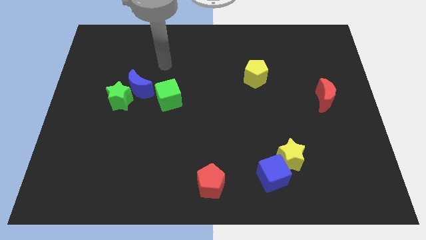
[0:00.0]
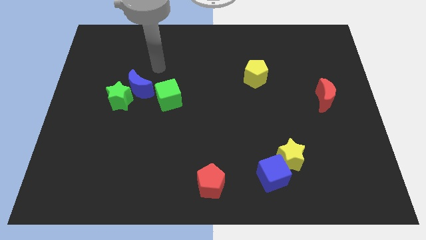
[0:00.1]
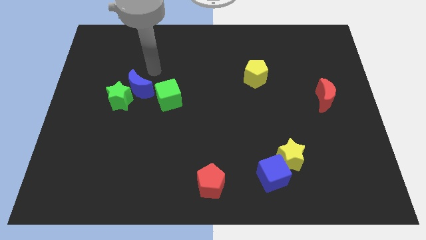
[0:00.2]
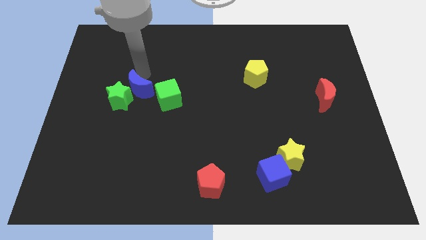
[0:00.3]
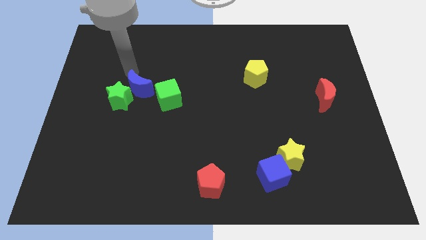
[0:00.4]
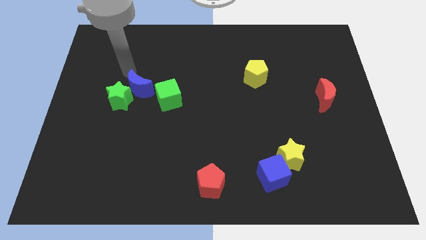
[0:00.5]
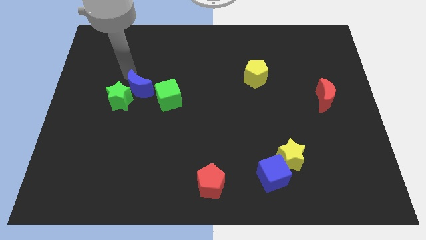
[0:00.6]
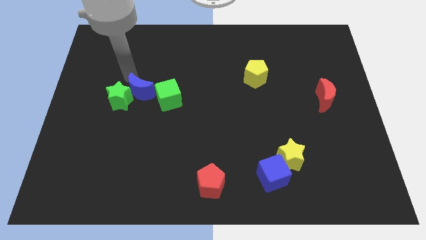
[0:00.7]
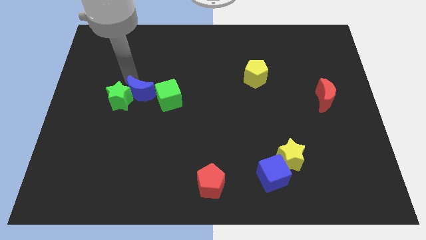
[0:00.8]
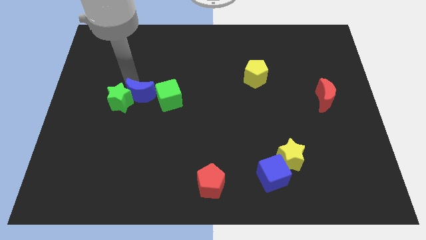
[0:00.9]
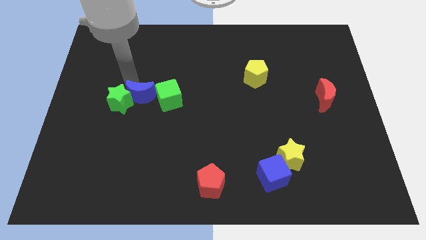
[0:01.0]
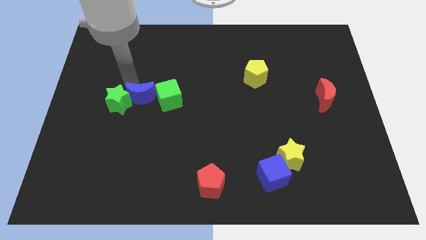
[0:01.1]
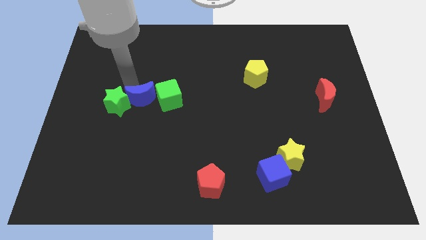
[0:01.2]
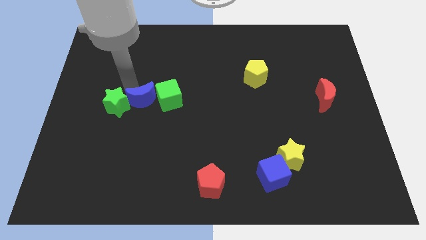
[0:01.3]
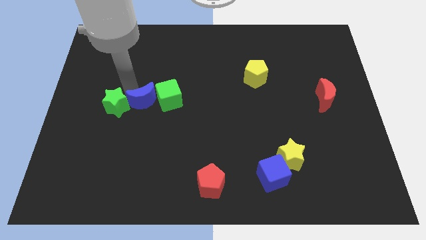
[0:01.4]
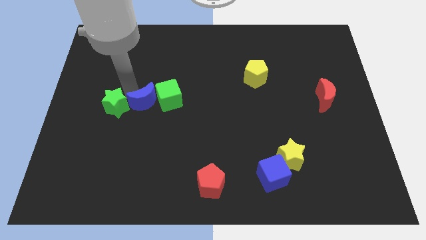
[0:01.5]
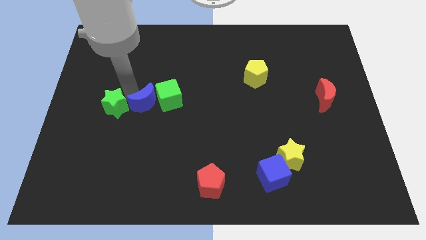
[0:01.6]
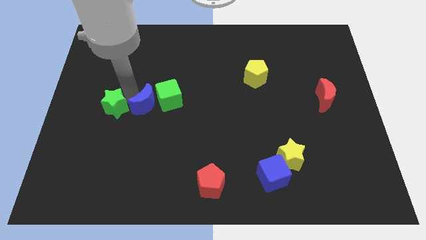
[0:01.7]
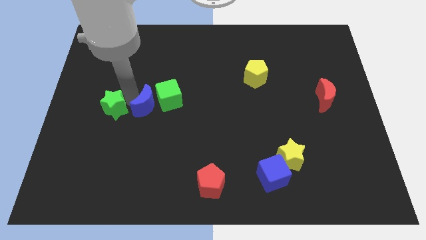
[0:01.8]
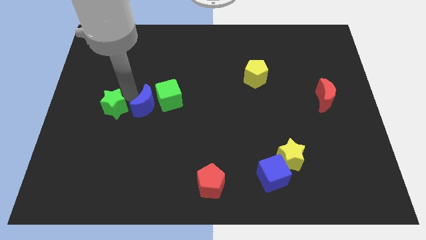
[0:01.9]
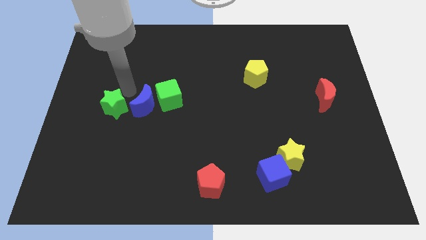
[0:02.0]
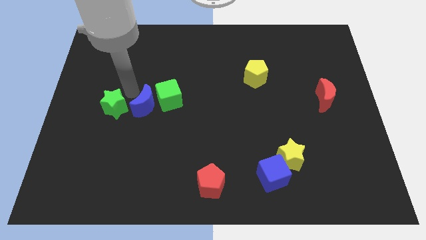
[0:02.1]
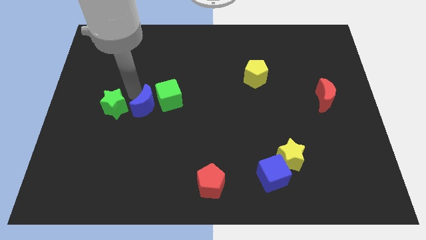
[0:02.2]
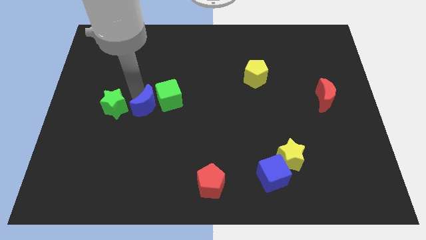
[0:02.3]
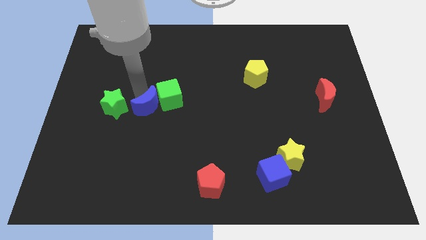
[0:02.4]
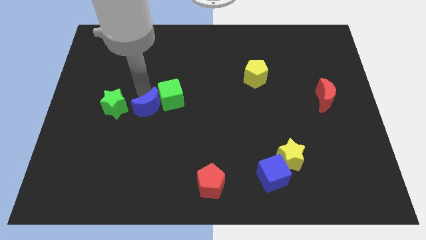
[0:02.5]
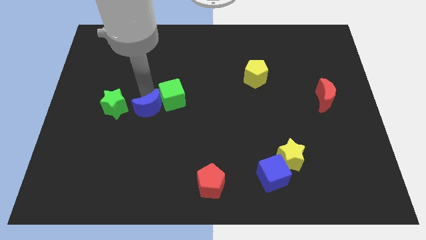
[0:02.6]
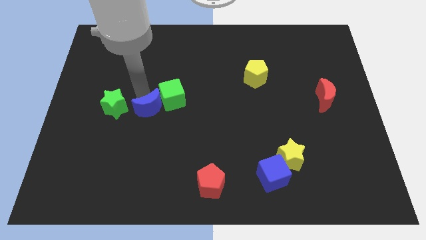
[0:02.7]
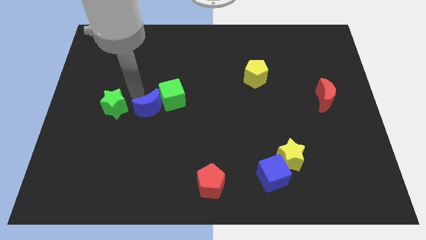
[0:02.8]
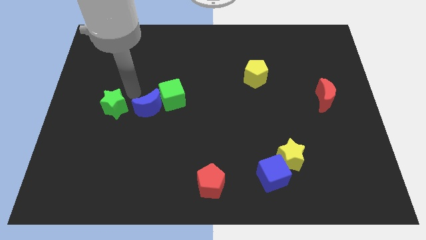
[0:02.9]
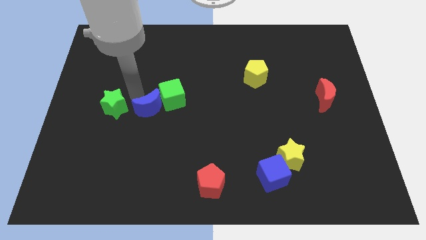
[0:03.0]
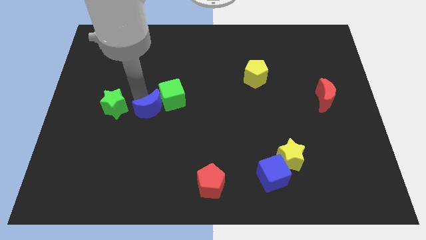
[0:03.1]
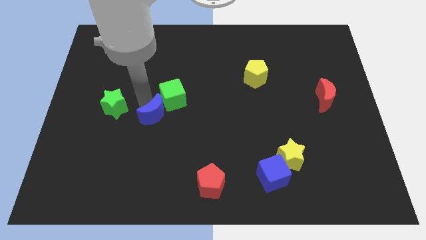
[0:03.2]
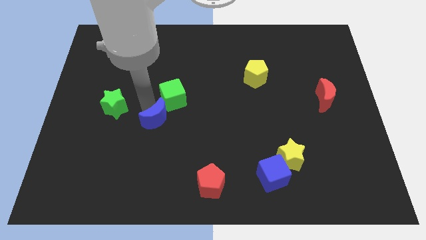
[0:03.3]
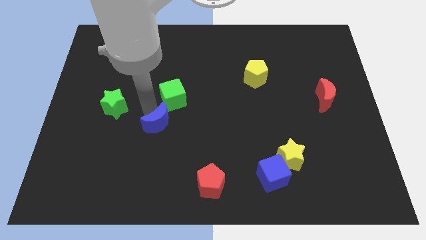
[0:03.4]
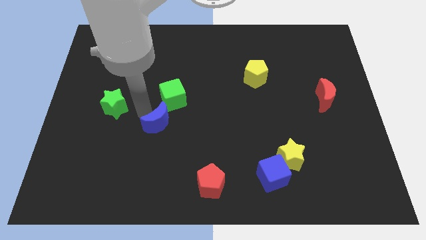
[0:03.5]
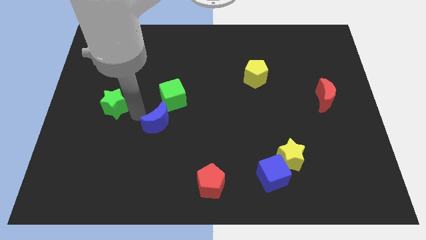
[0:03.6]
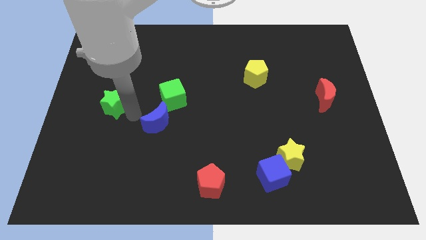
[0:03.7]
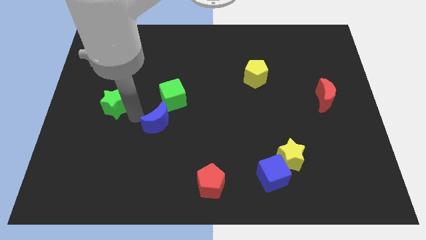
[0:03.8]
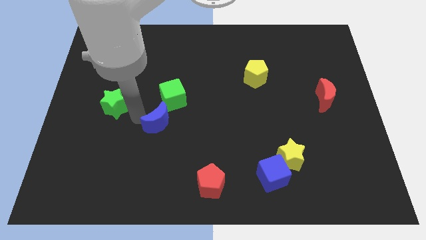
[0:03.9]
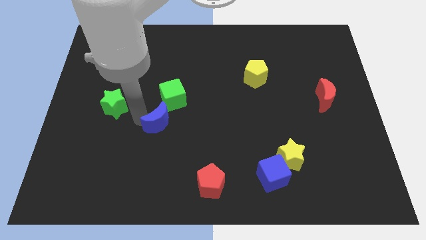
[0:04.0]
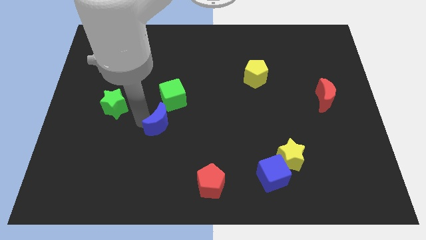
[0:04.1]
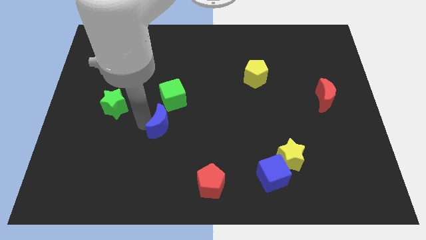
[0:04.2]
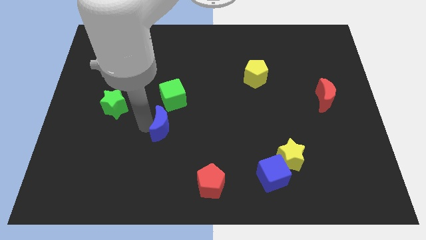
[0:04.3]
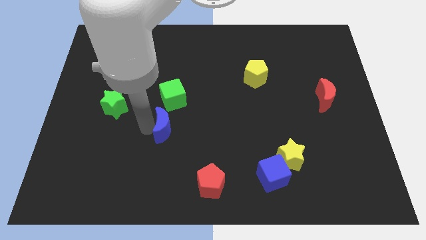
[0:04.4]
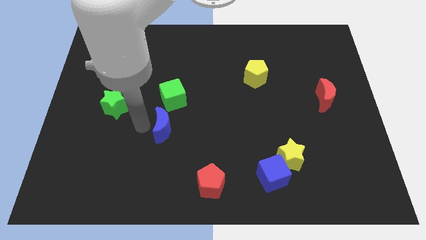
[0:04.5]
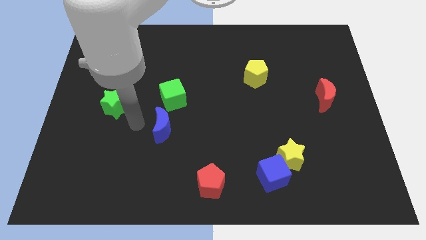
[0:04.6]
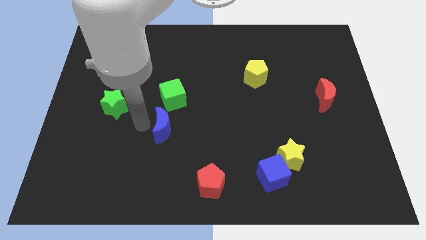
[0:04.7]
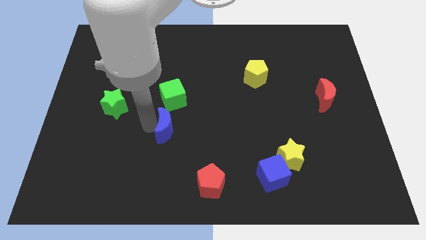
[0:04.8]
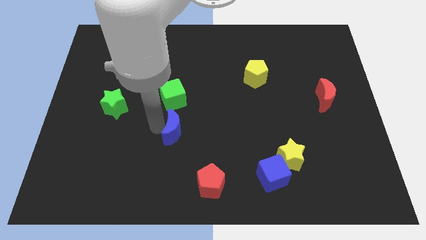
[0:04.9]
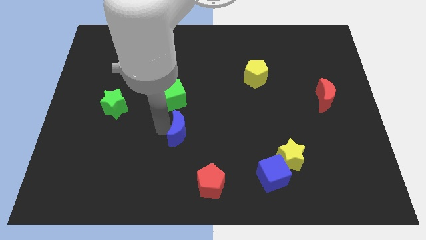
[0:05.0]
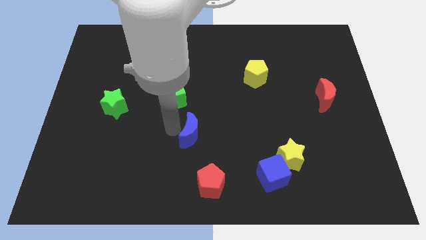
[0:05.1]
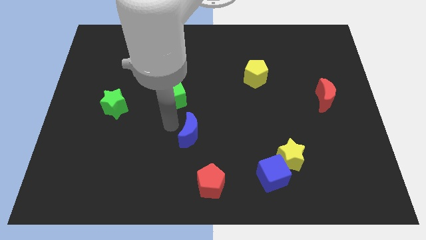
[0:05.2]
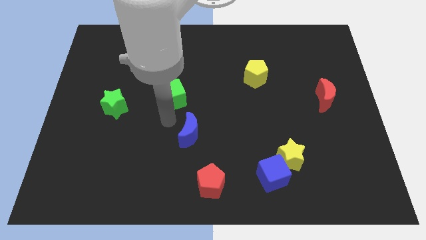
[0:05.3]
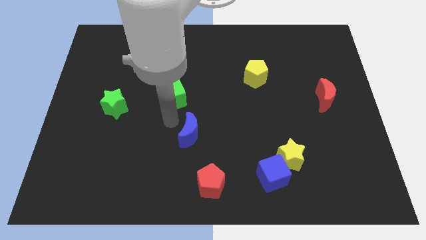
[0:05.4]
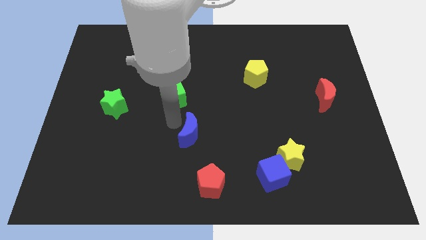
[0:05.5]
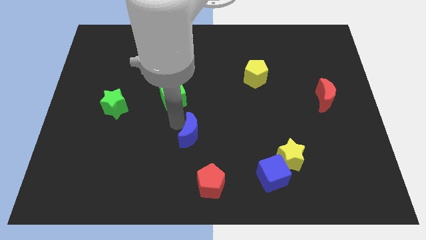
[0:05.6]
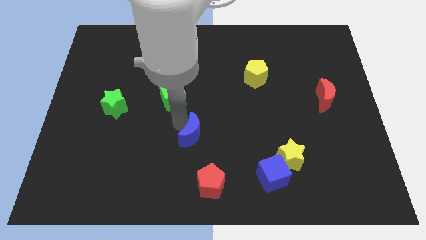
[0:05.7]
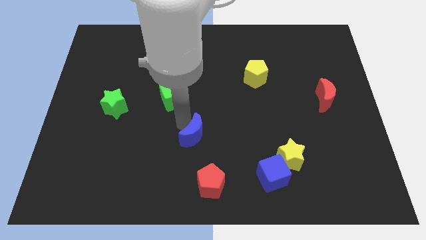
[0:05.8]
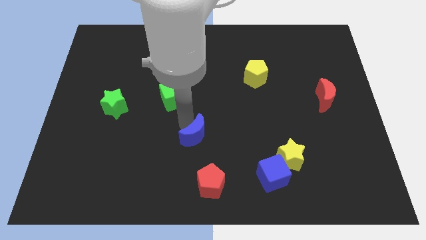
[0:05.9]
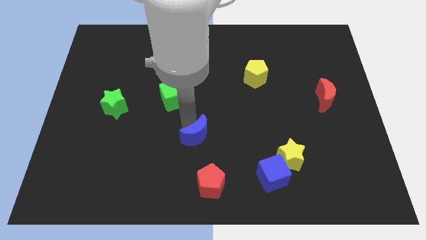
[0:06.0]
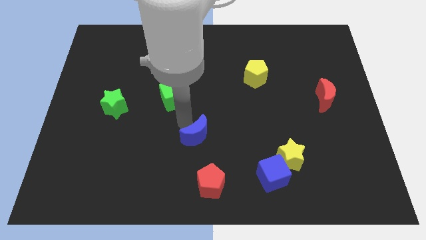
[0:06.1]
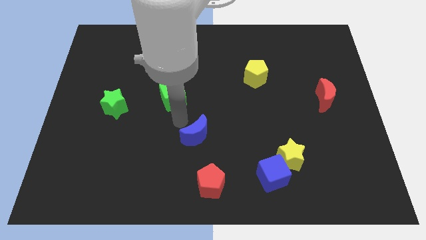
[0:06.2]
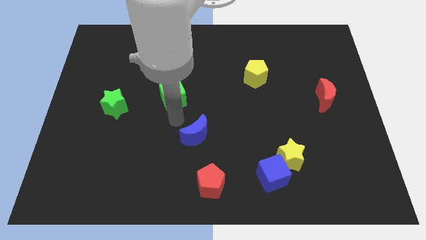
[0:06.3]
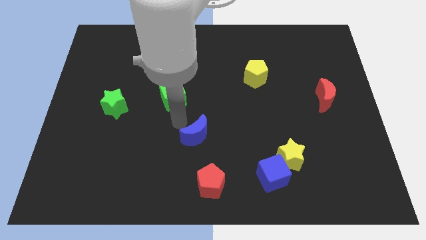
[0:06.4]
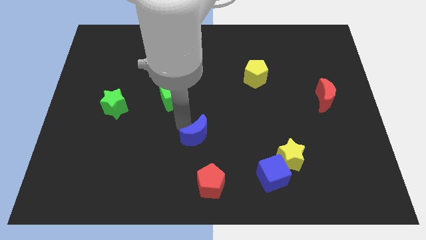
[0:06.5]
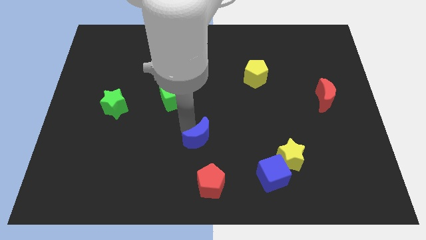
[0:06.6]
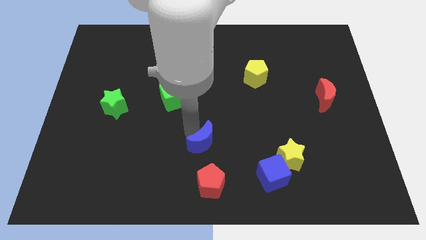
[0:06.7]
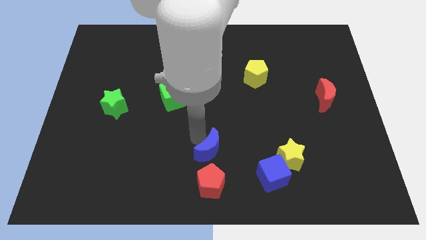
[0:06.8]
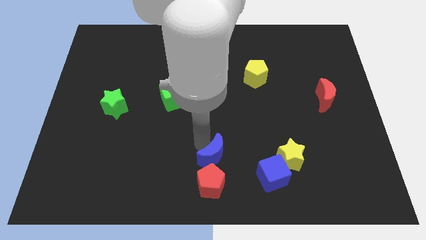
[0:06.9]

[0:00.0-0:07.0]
move the blue moon to the top right side of the red pentagon
